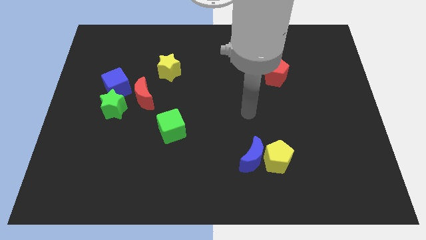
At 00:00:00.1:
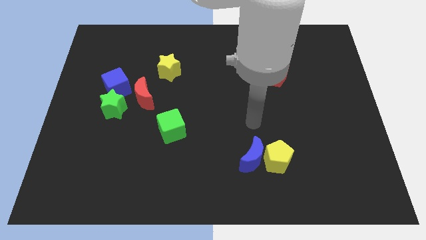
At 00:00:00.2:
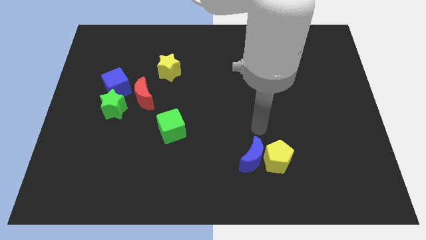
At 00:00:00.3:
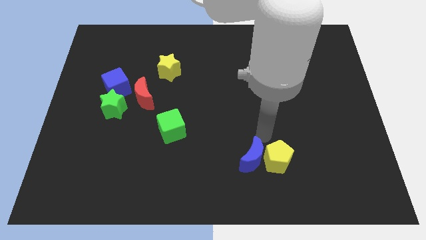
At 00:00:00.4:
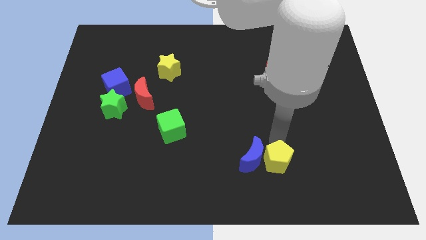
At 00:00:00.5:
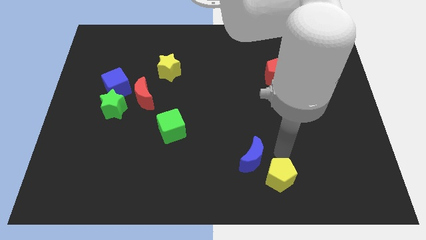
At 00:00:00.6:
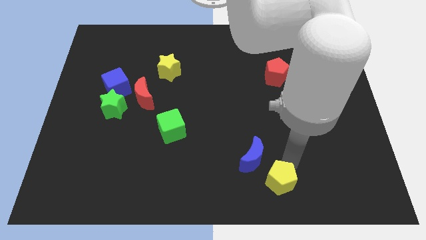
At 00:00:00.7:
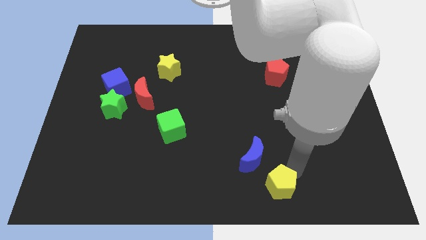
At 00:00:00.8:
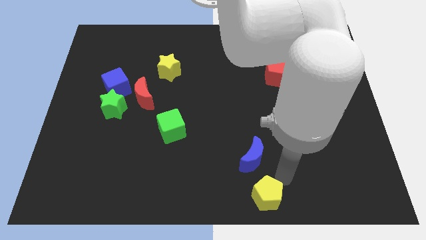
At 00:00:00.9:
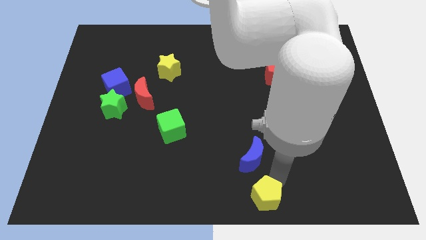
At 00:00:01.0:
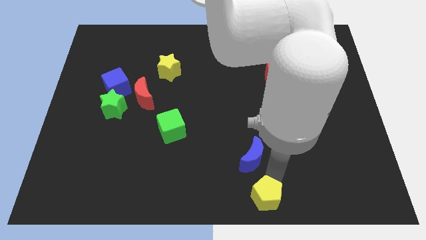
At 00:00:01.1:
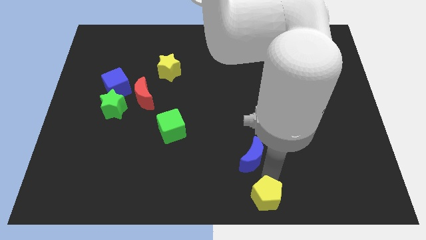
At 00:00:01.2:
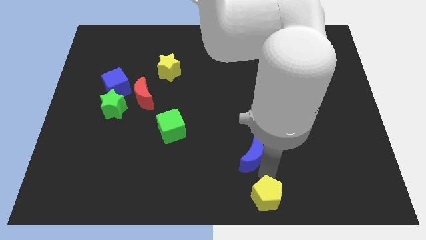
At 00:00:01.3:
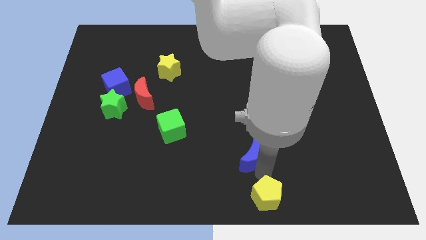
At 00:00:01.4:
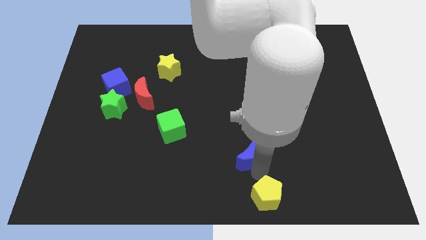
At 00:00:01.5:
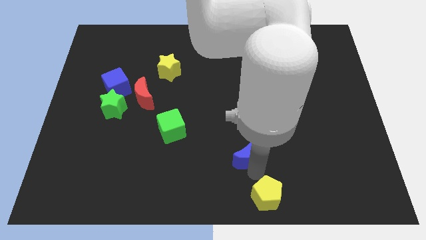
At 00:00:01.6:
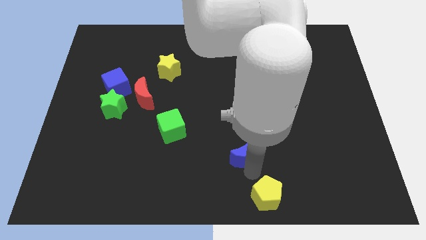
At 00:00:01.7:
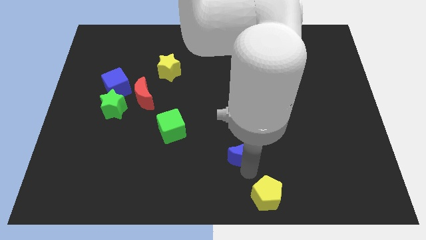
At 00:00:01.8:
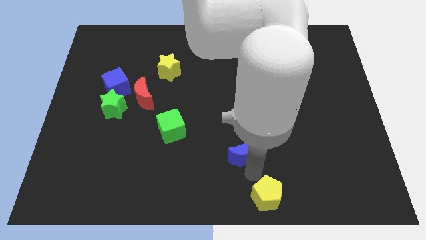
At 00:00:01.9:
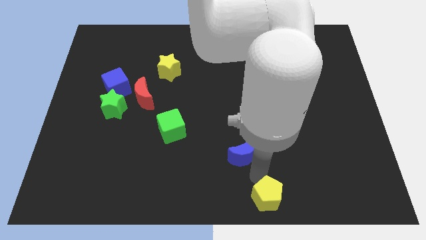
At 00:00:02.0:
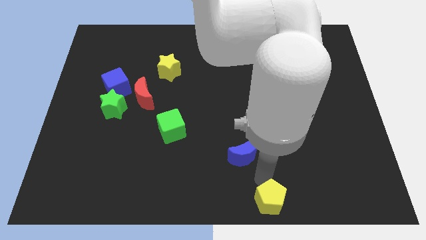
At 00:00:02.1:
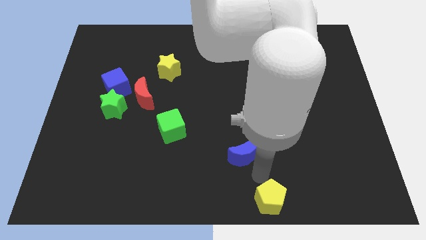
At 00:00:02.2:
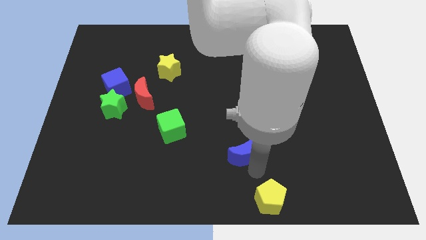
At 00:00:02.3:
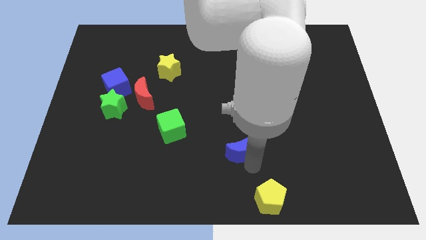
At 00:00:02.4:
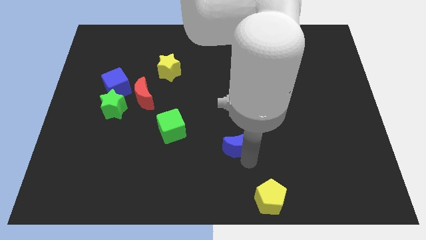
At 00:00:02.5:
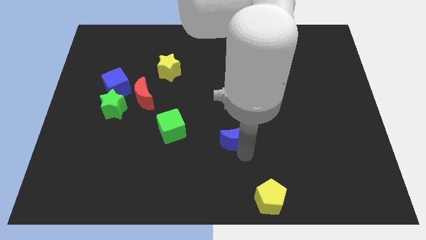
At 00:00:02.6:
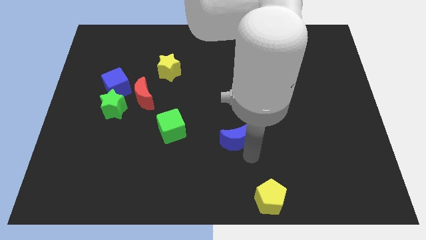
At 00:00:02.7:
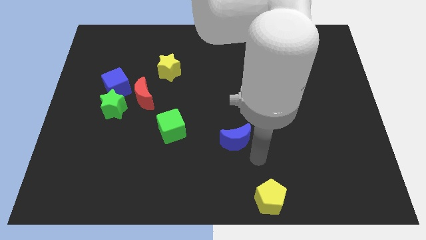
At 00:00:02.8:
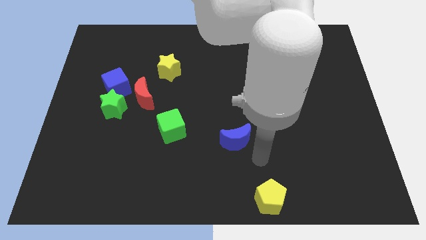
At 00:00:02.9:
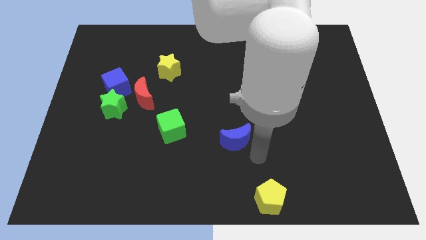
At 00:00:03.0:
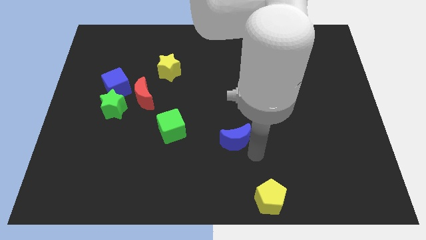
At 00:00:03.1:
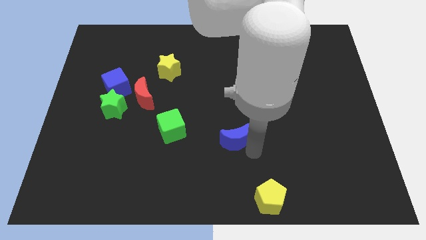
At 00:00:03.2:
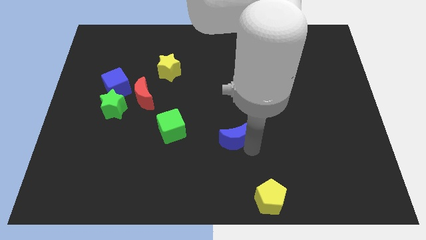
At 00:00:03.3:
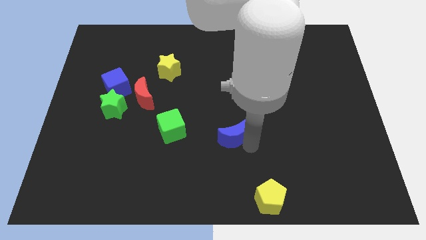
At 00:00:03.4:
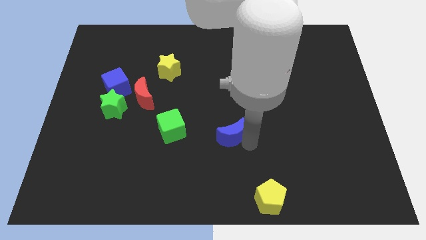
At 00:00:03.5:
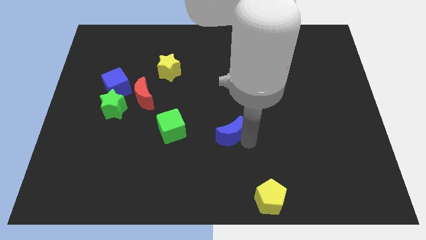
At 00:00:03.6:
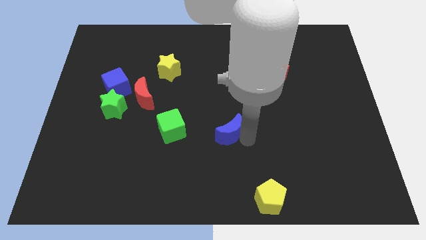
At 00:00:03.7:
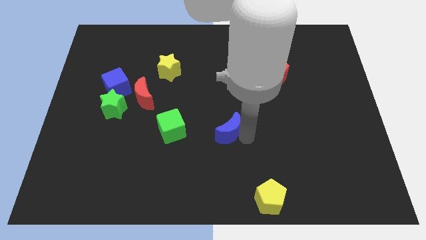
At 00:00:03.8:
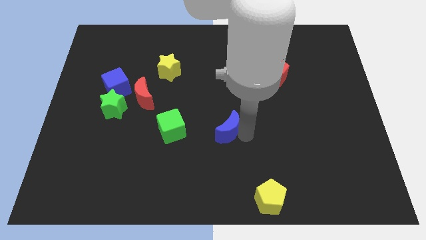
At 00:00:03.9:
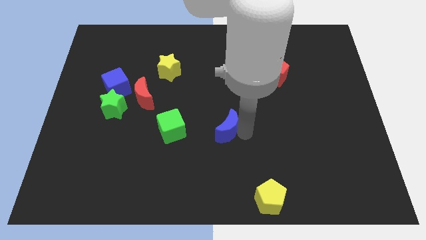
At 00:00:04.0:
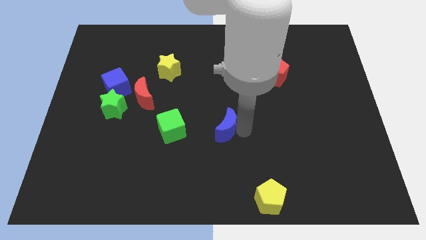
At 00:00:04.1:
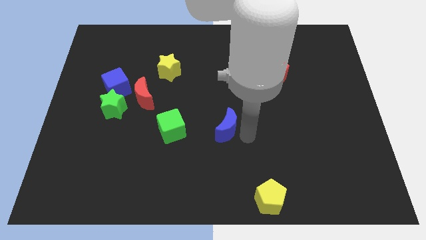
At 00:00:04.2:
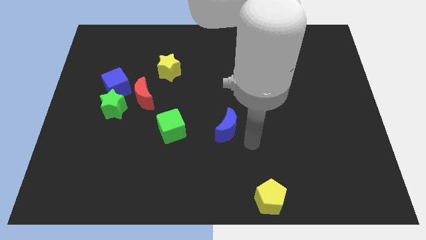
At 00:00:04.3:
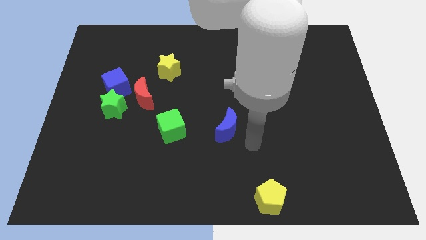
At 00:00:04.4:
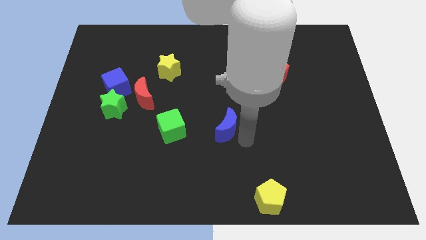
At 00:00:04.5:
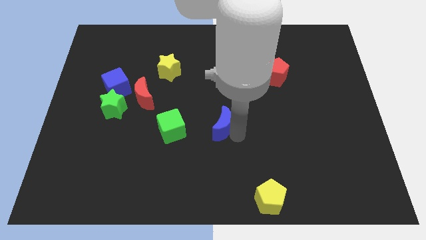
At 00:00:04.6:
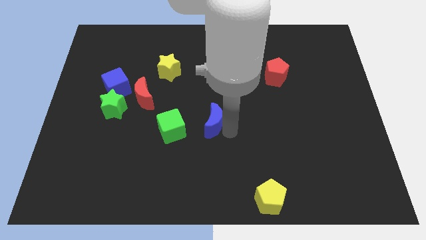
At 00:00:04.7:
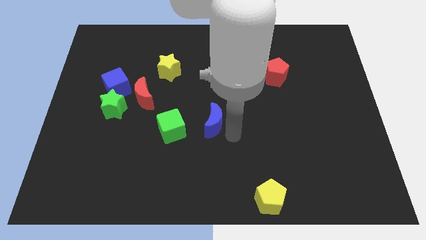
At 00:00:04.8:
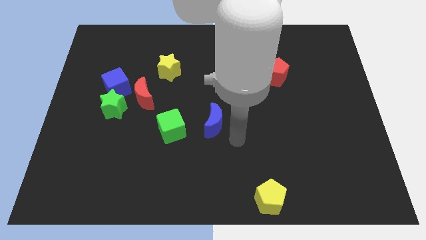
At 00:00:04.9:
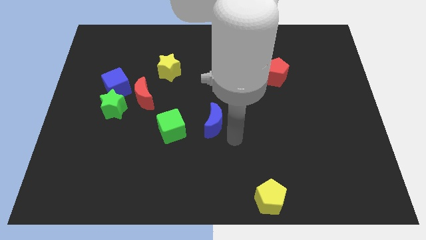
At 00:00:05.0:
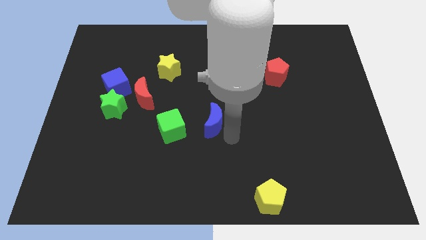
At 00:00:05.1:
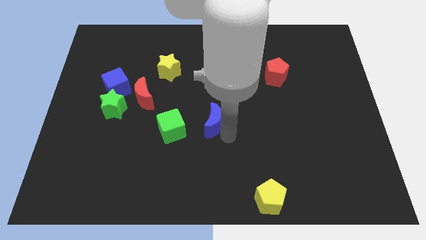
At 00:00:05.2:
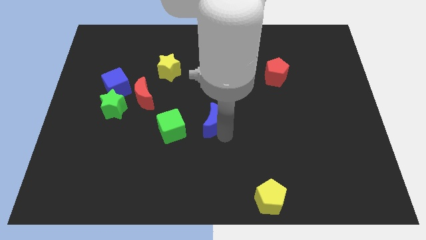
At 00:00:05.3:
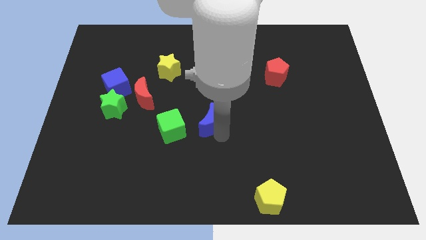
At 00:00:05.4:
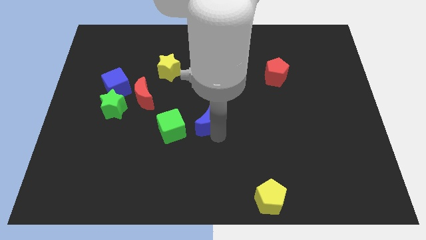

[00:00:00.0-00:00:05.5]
slide the blue moon diagonally up and to the right of the green cube
